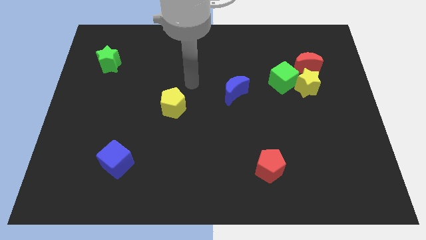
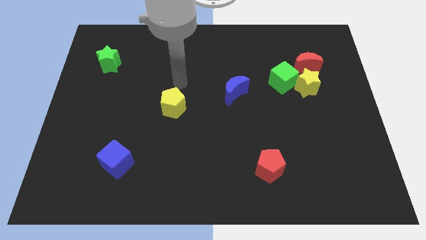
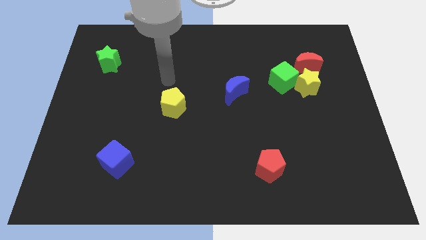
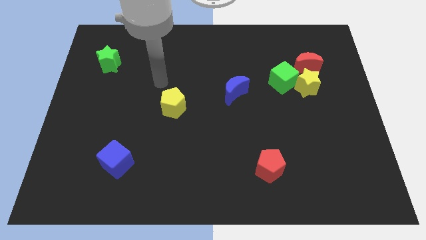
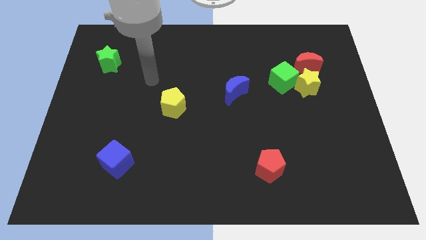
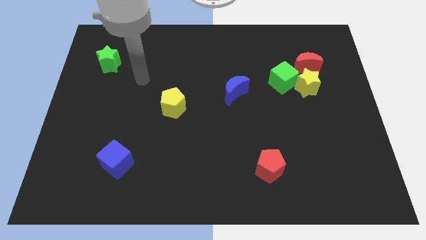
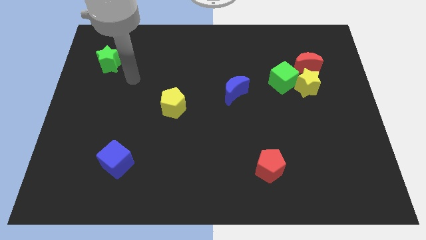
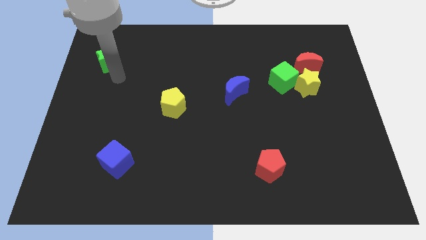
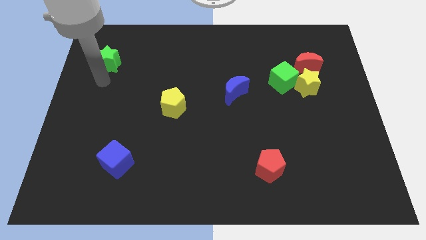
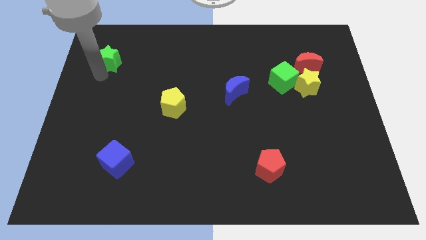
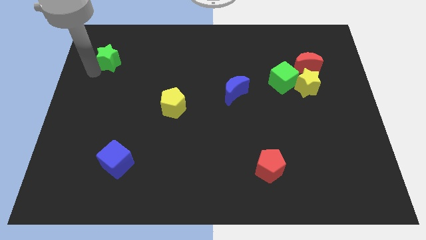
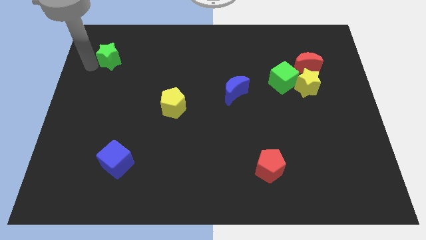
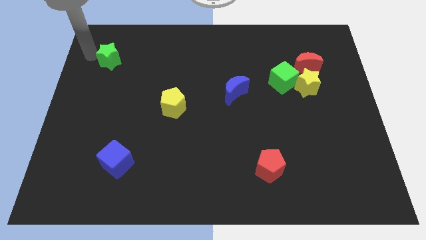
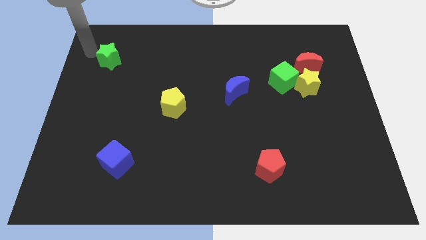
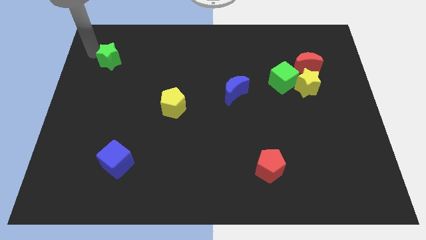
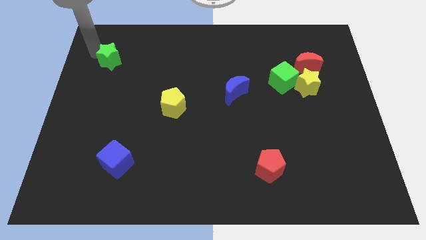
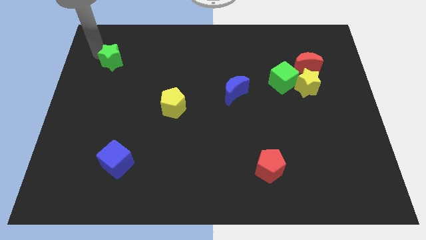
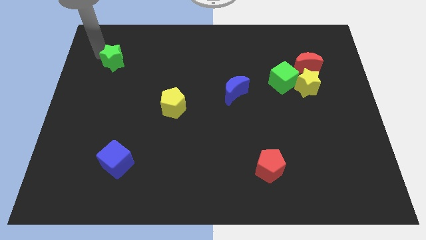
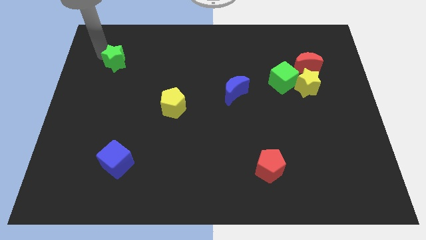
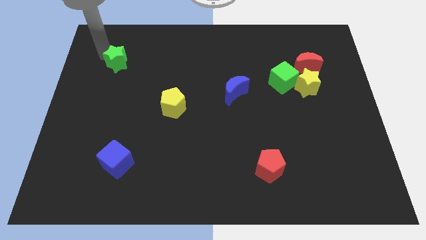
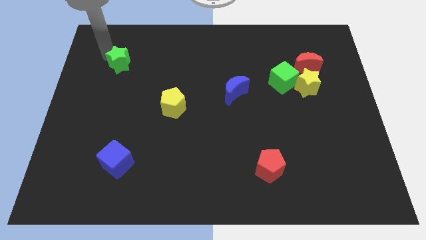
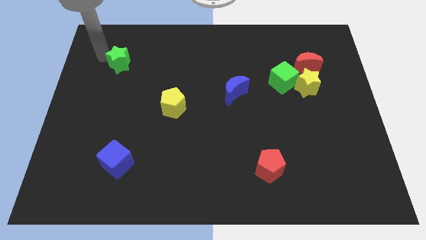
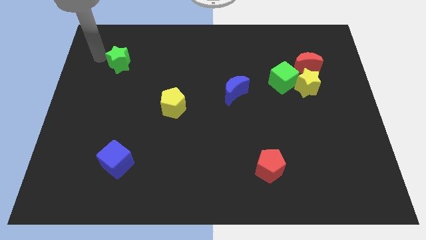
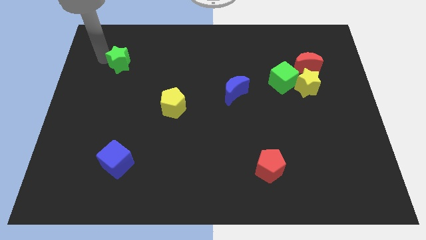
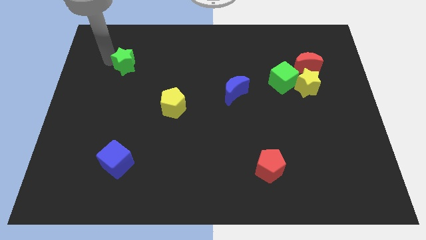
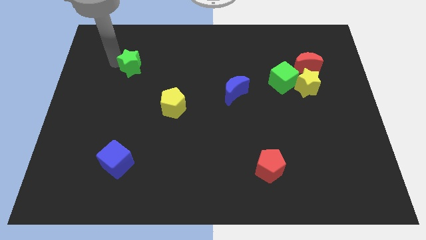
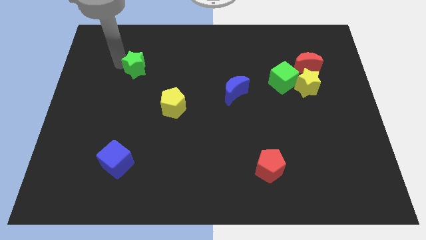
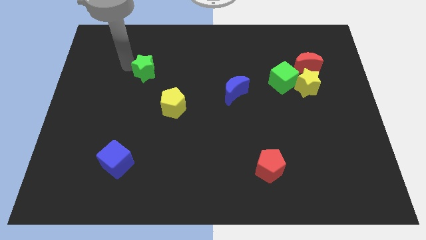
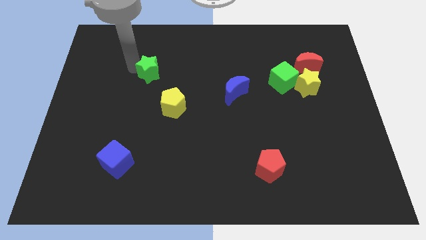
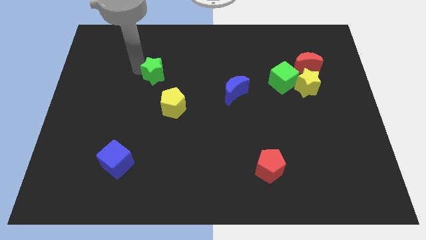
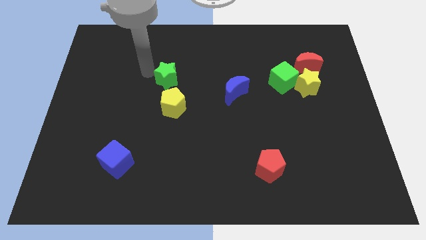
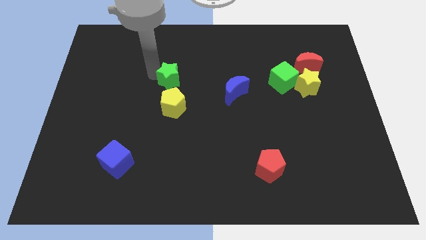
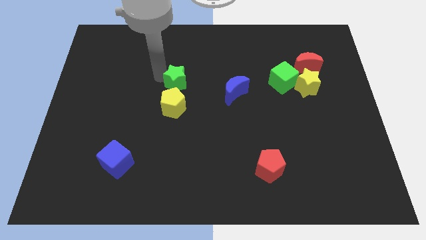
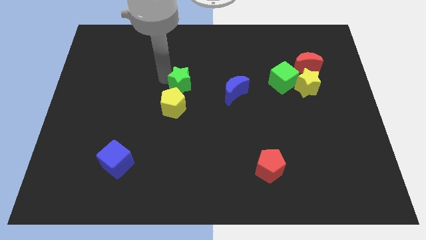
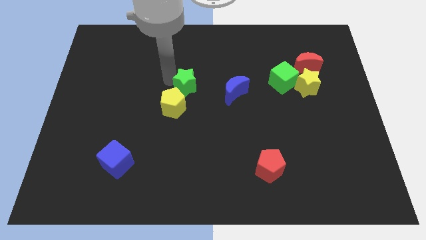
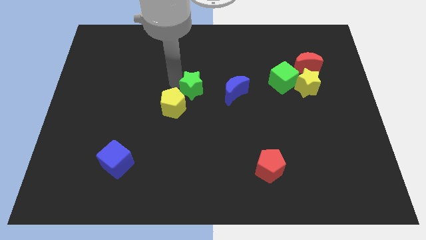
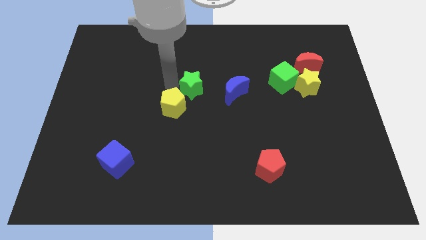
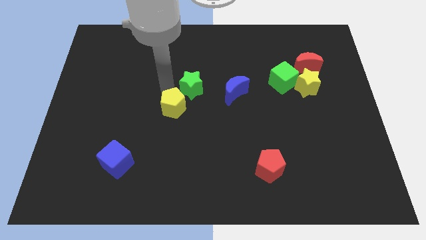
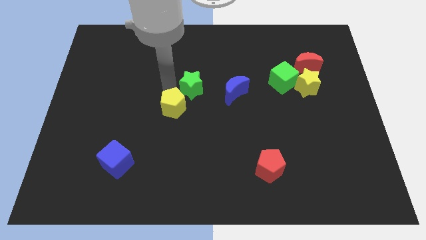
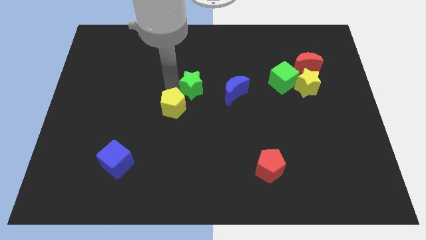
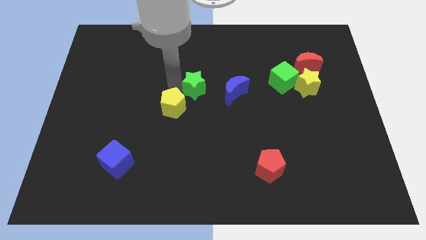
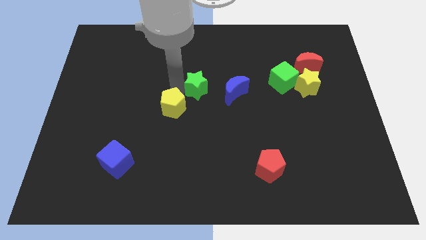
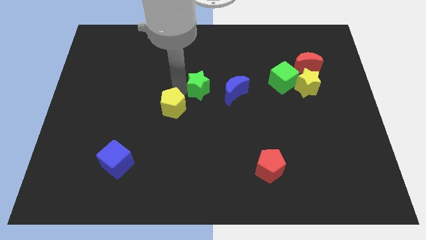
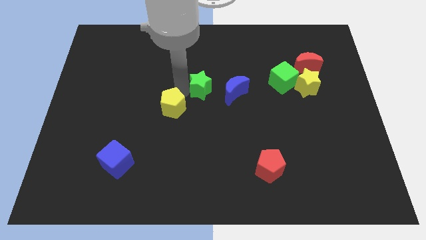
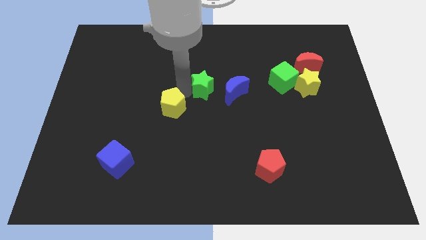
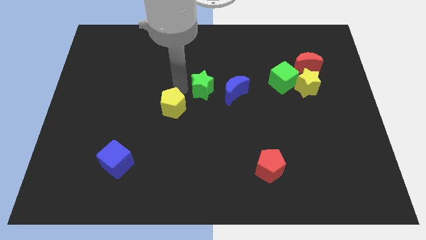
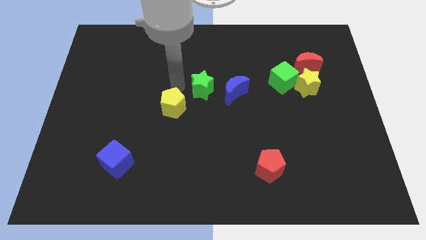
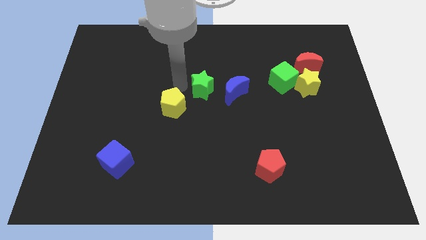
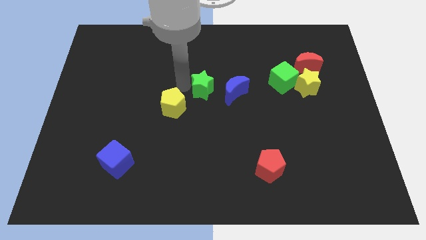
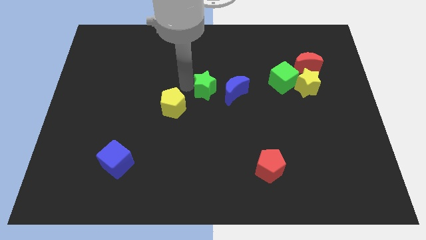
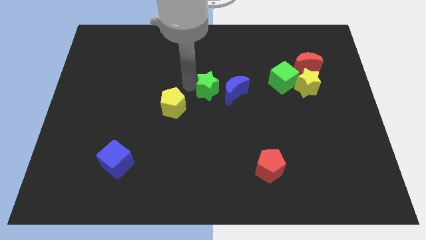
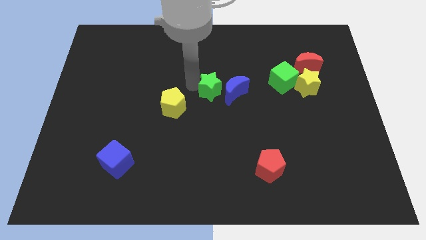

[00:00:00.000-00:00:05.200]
push the green star close to the blue moon

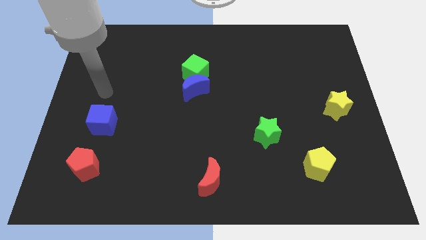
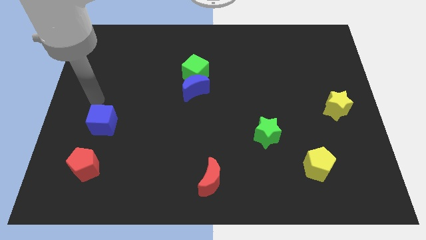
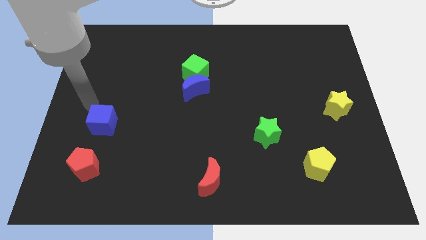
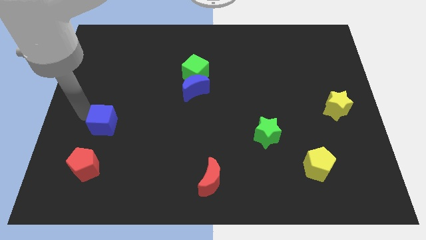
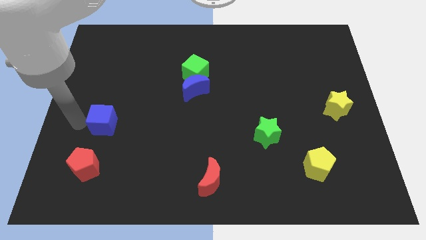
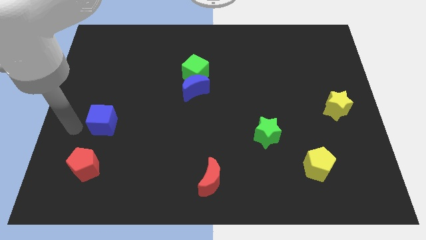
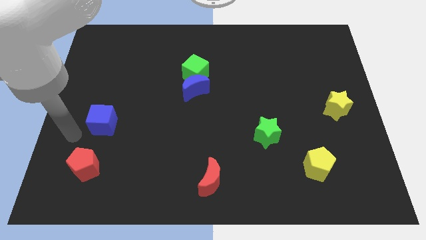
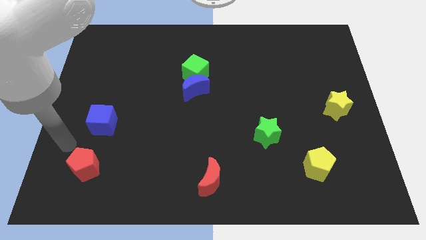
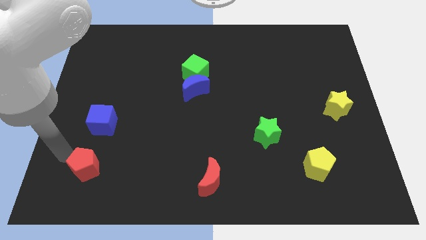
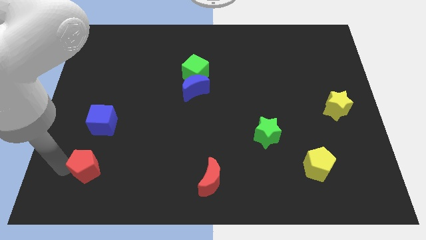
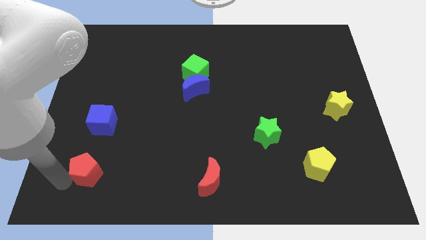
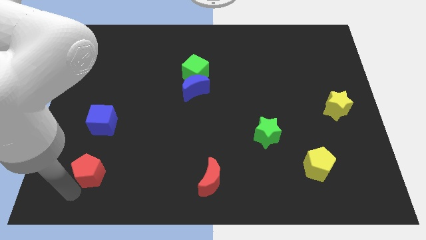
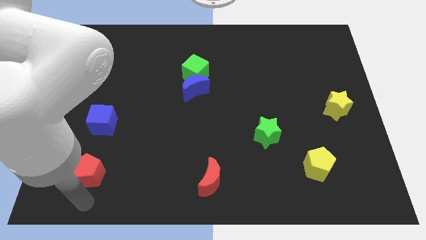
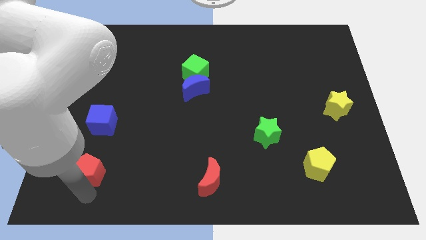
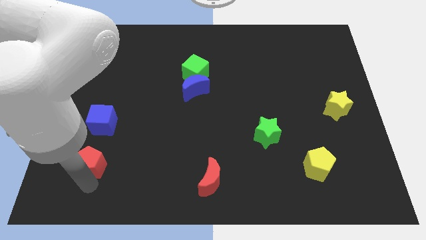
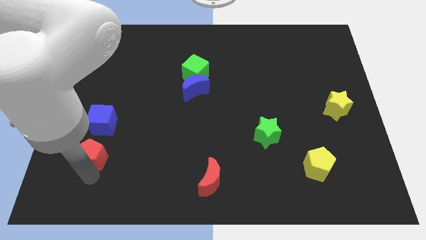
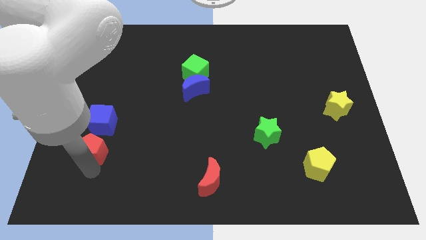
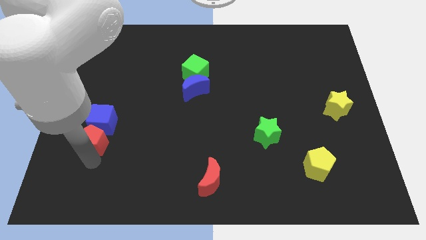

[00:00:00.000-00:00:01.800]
push the red pentagon towards the blue cube

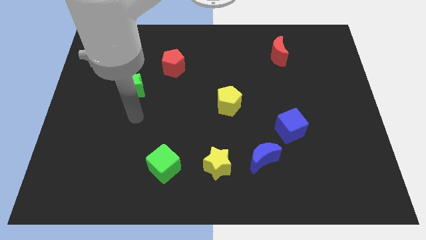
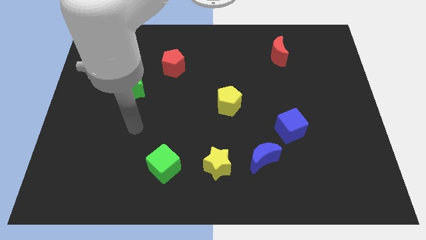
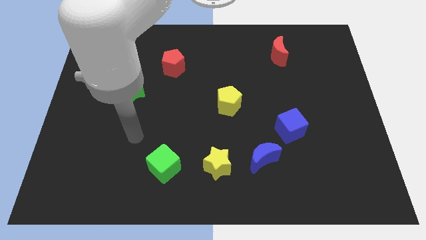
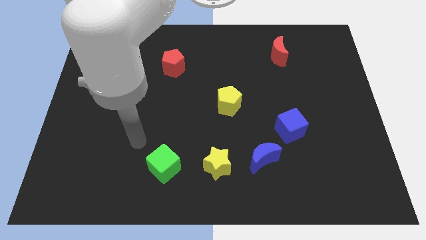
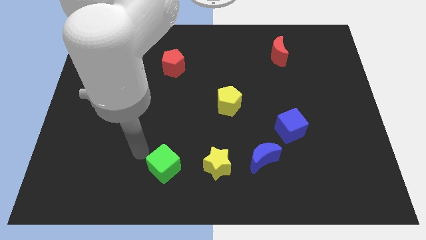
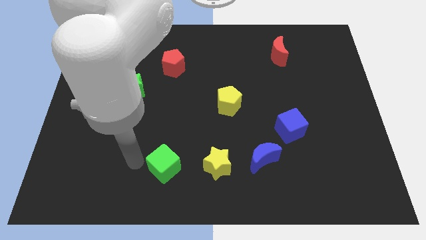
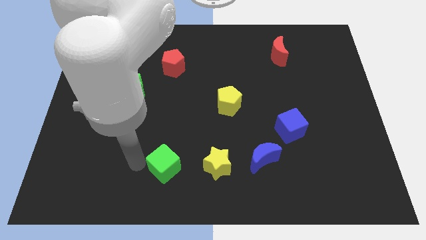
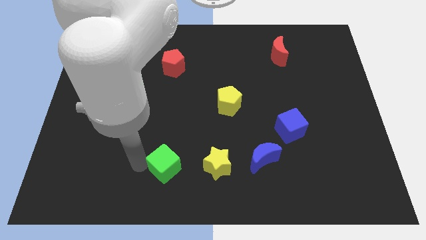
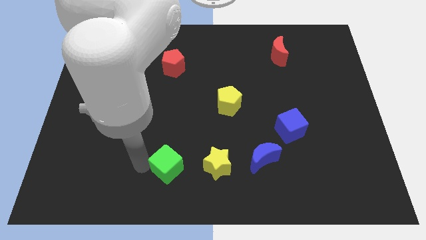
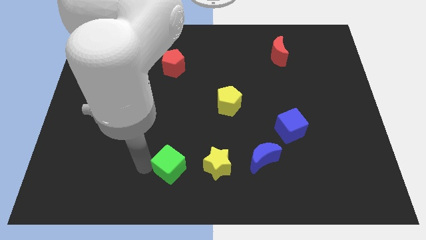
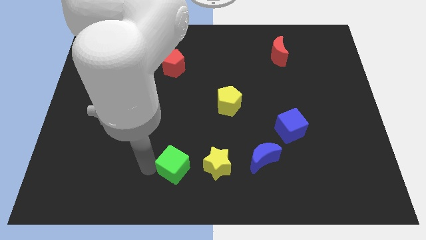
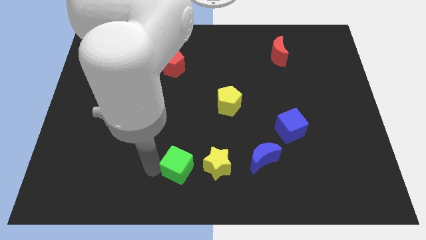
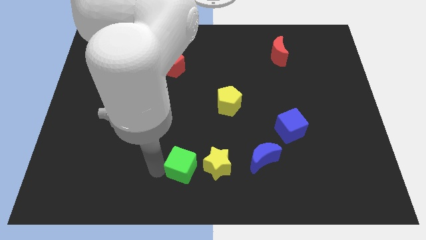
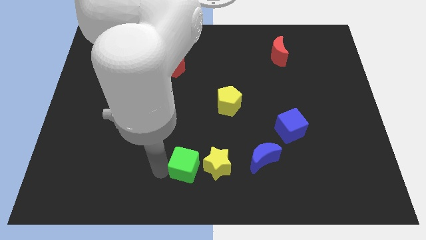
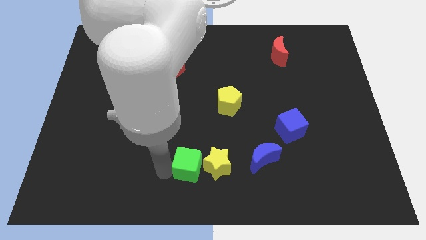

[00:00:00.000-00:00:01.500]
put the green cube towards the yellow star
